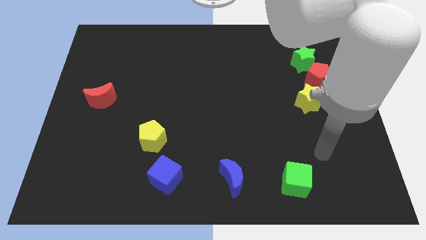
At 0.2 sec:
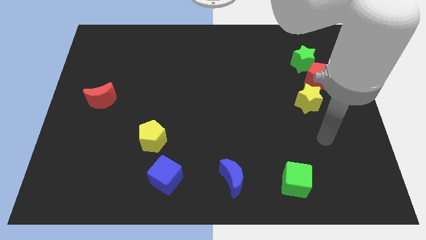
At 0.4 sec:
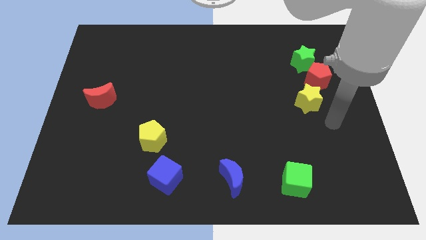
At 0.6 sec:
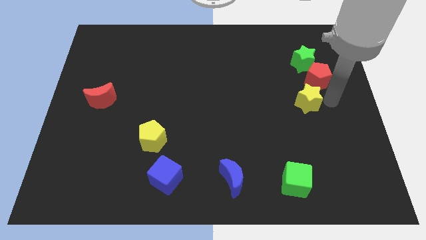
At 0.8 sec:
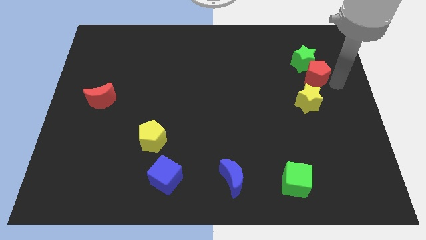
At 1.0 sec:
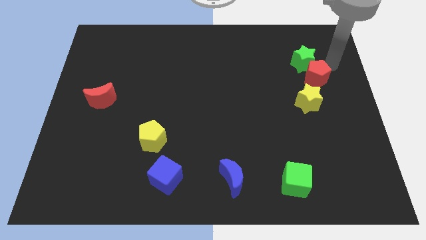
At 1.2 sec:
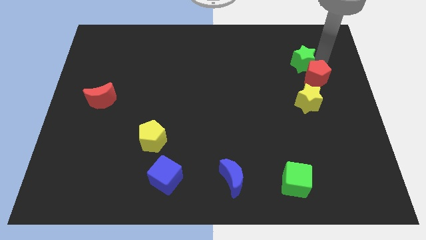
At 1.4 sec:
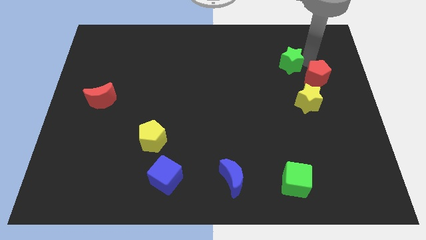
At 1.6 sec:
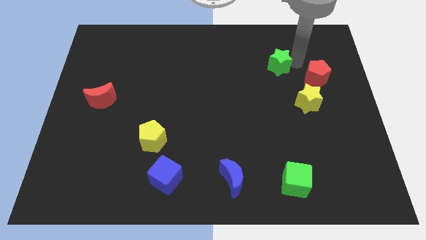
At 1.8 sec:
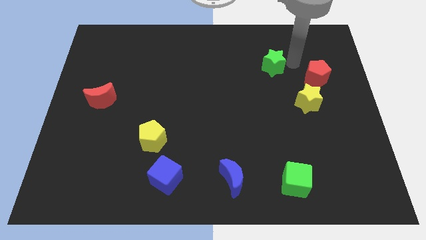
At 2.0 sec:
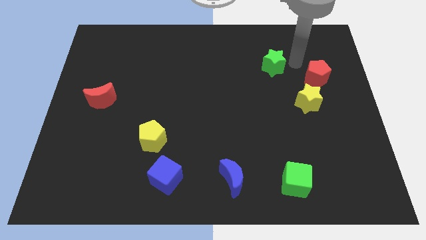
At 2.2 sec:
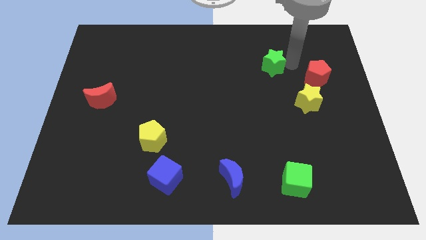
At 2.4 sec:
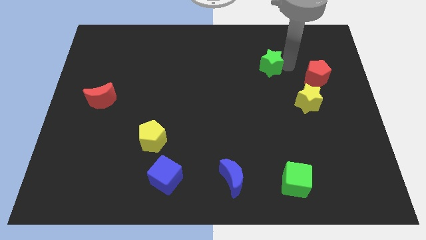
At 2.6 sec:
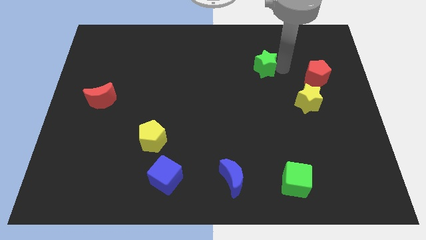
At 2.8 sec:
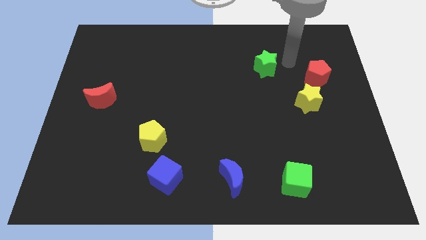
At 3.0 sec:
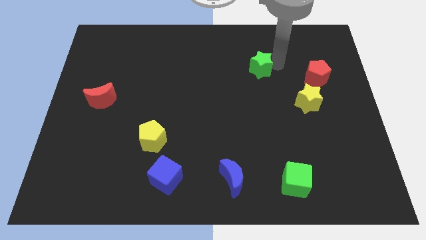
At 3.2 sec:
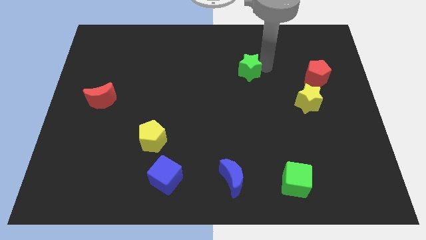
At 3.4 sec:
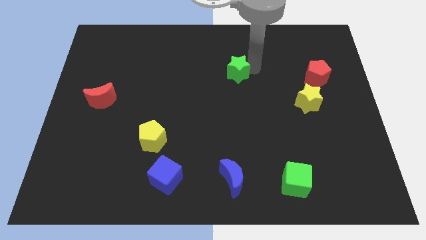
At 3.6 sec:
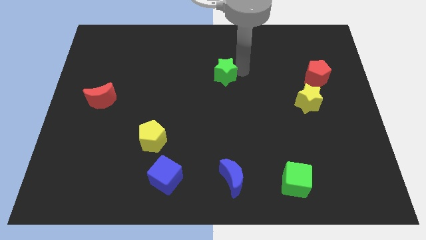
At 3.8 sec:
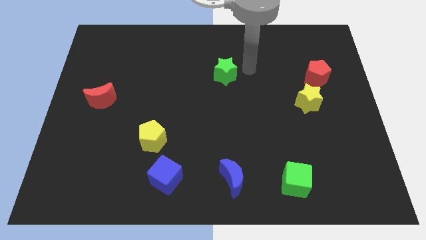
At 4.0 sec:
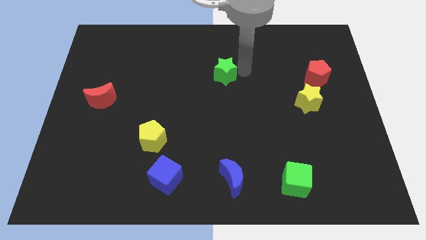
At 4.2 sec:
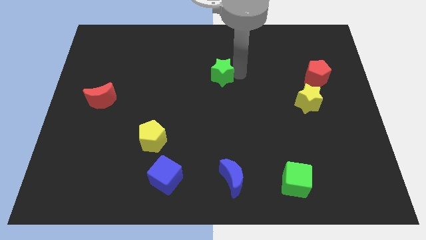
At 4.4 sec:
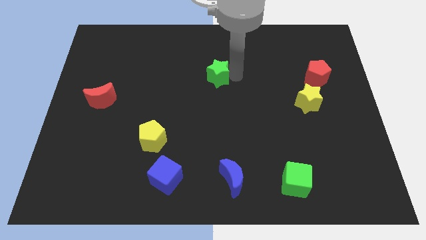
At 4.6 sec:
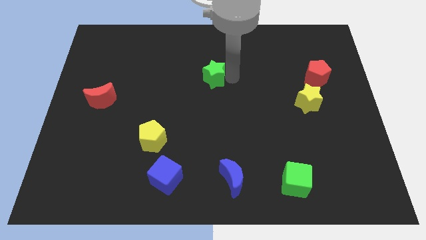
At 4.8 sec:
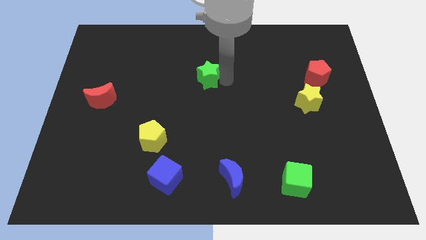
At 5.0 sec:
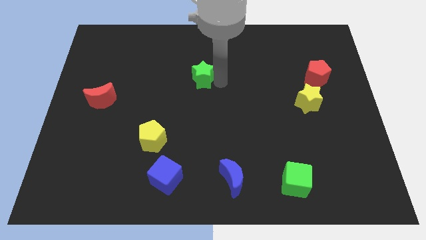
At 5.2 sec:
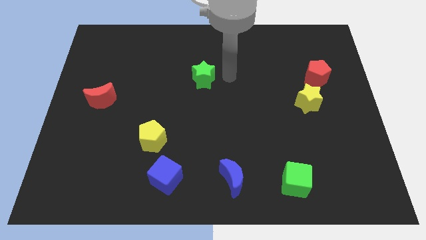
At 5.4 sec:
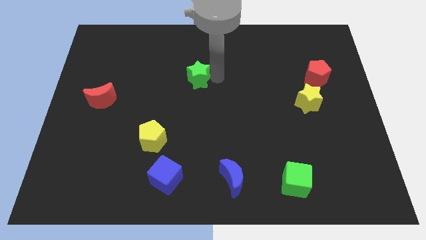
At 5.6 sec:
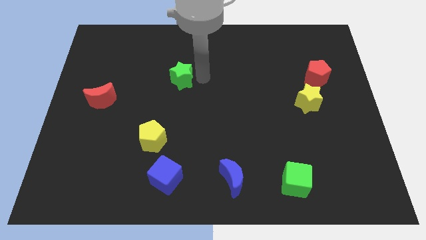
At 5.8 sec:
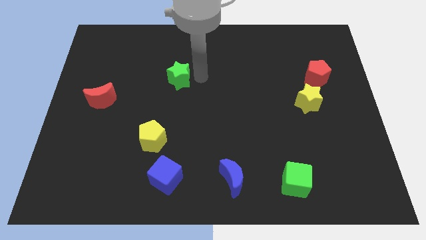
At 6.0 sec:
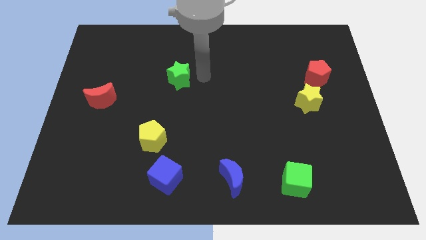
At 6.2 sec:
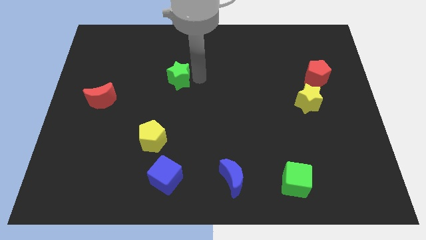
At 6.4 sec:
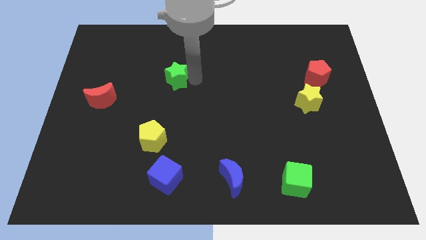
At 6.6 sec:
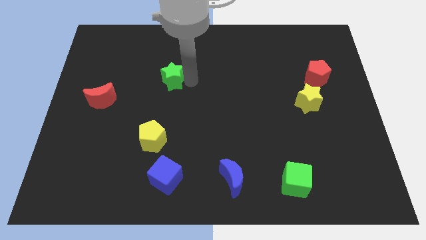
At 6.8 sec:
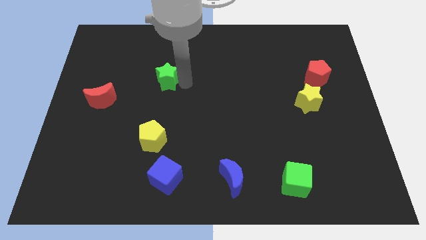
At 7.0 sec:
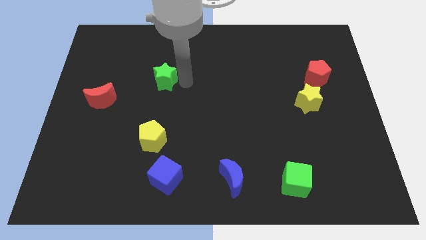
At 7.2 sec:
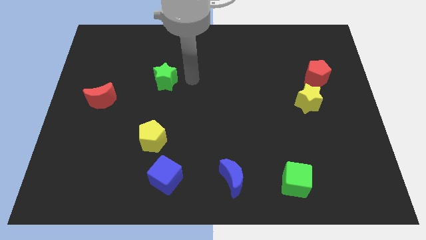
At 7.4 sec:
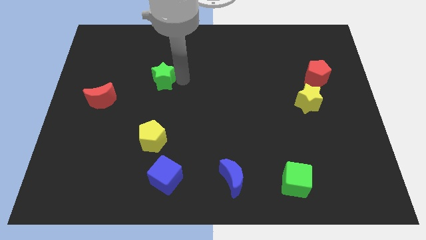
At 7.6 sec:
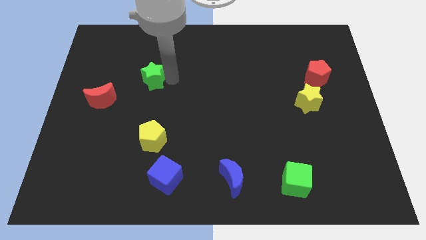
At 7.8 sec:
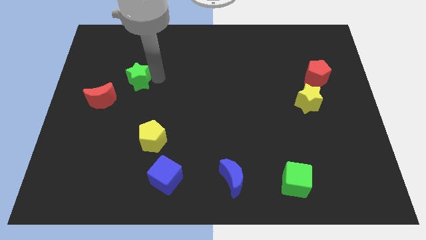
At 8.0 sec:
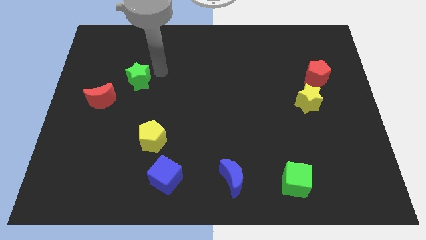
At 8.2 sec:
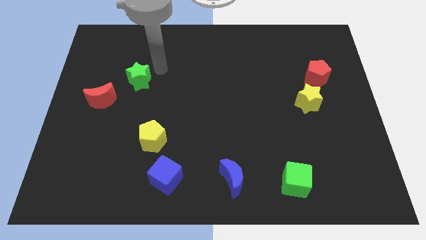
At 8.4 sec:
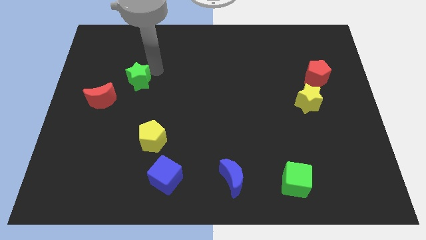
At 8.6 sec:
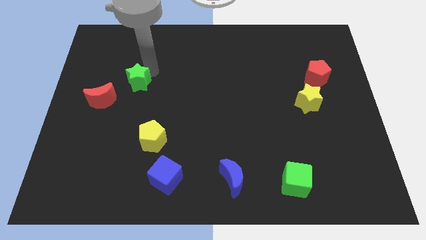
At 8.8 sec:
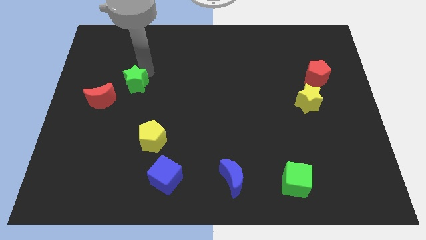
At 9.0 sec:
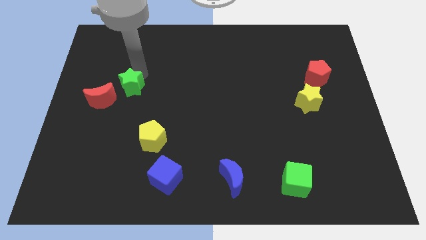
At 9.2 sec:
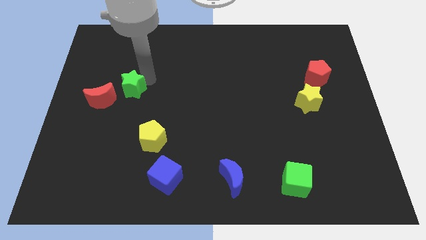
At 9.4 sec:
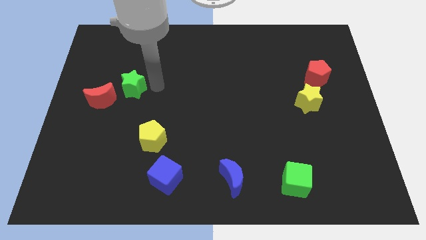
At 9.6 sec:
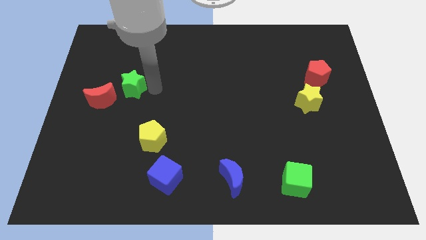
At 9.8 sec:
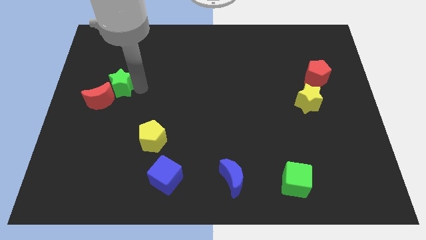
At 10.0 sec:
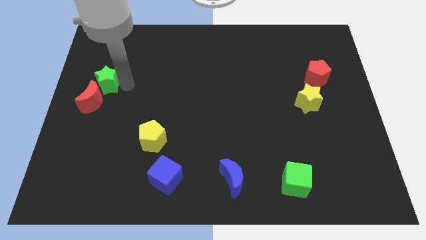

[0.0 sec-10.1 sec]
push the green star to the left side

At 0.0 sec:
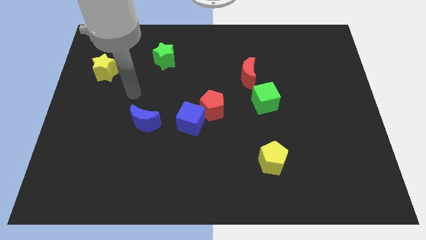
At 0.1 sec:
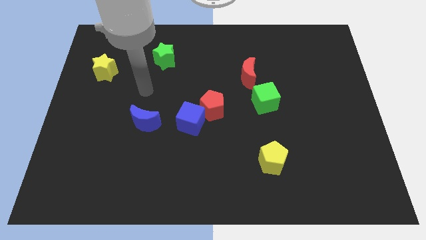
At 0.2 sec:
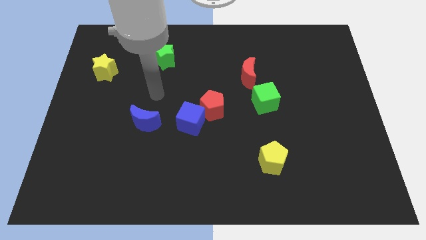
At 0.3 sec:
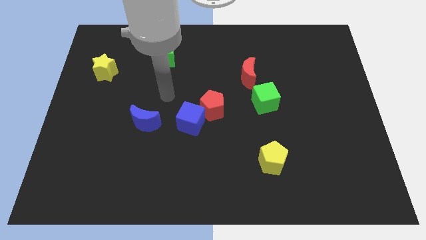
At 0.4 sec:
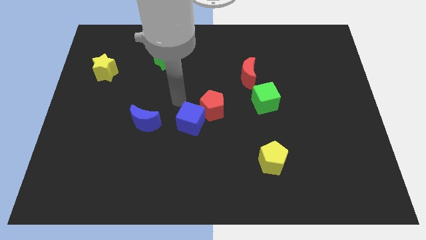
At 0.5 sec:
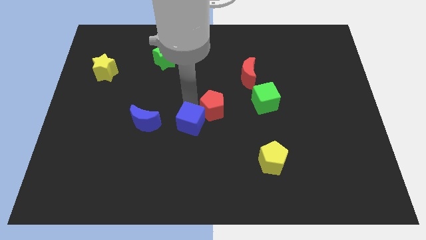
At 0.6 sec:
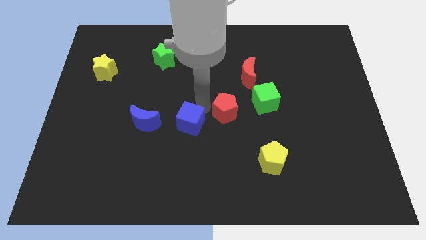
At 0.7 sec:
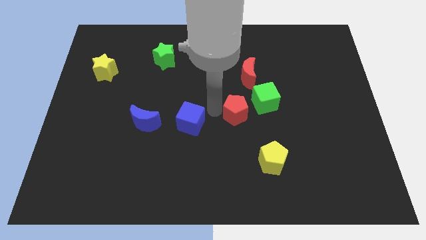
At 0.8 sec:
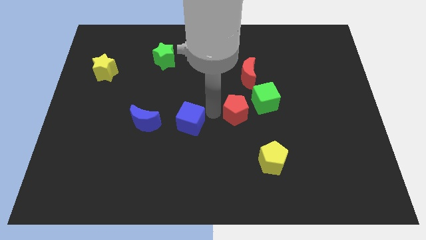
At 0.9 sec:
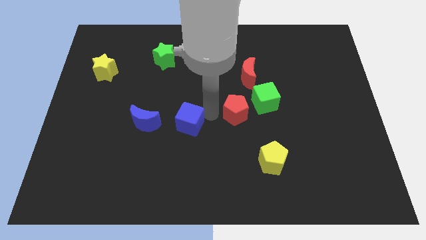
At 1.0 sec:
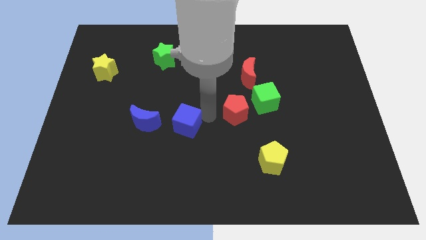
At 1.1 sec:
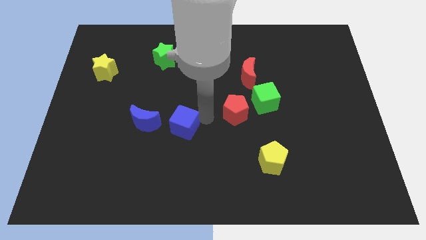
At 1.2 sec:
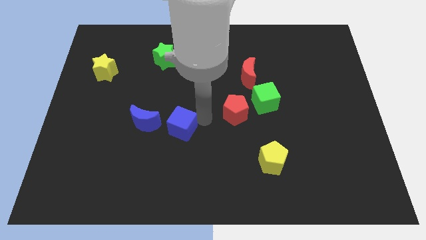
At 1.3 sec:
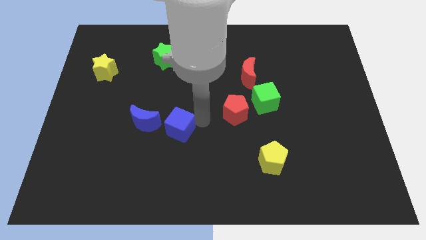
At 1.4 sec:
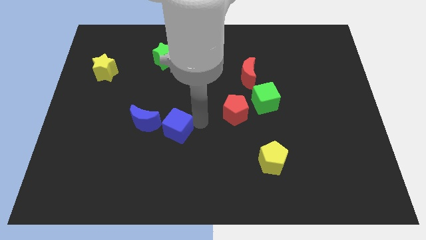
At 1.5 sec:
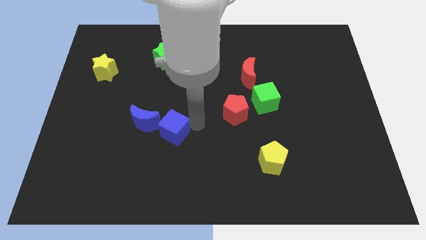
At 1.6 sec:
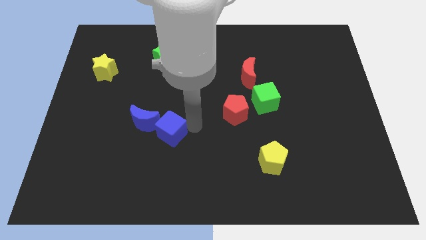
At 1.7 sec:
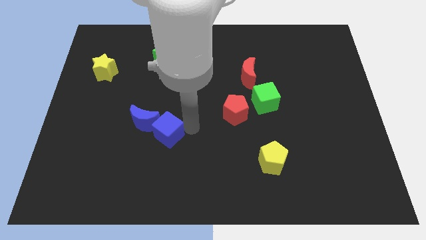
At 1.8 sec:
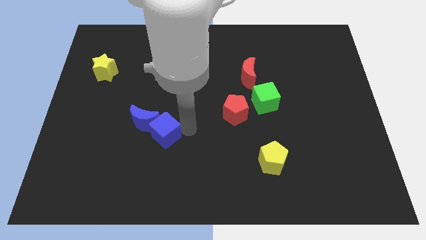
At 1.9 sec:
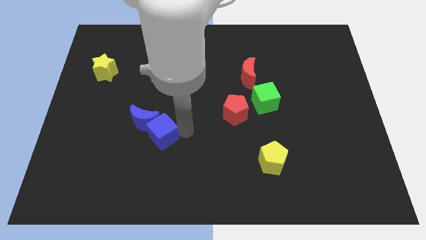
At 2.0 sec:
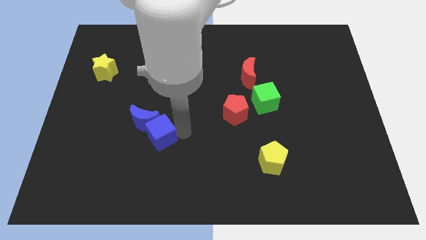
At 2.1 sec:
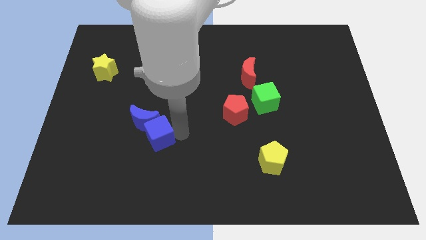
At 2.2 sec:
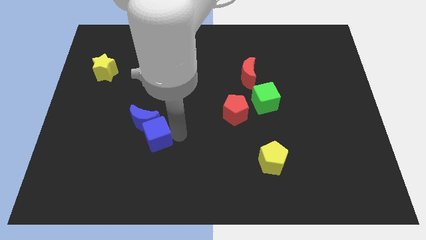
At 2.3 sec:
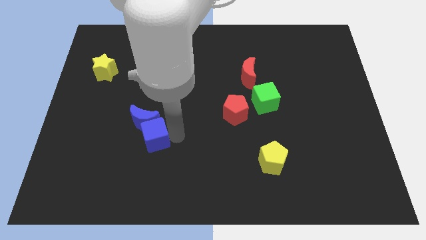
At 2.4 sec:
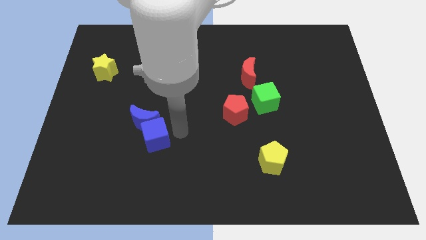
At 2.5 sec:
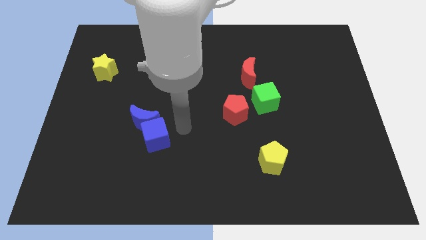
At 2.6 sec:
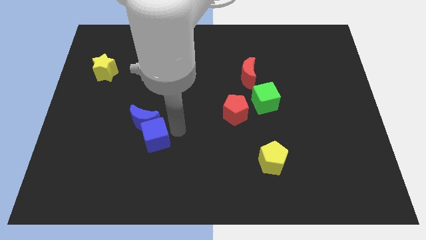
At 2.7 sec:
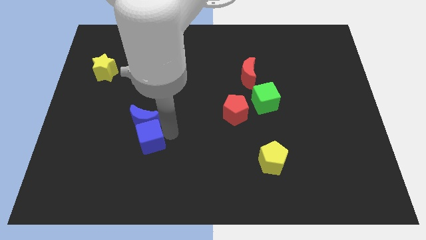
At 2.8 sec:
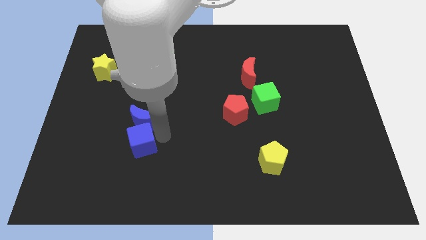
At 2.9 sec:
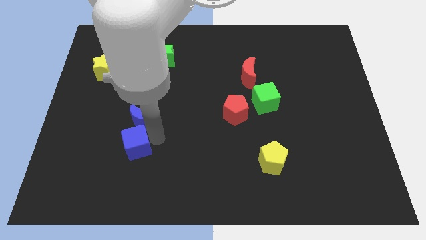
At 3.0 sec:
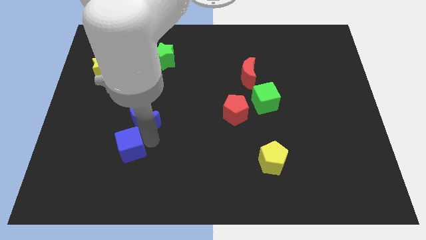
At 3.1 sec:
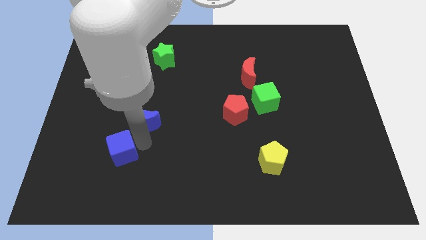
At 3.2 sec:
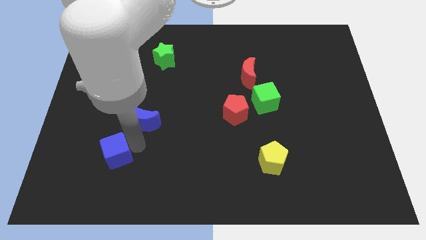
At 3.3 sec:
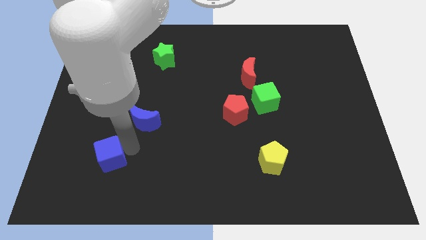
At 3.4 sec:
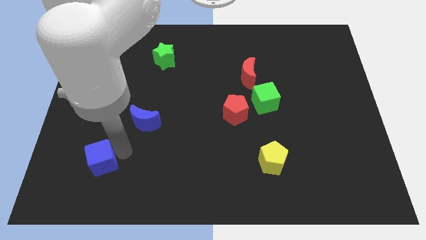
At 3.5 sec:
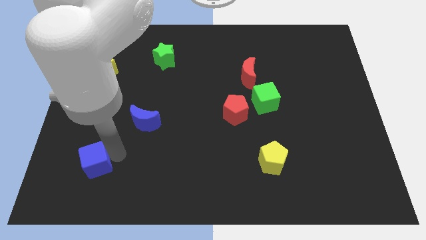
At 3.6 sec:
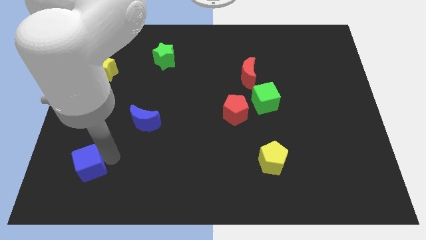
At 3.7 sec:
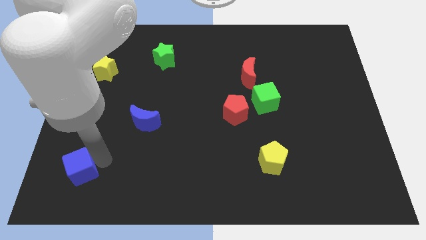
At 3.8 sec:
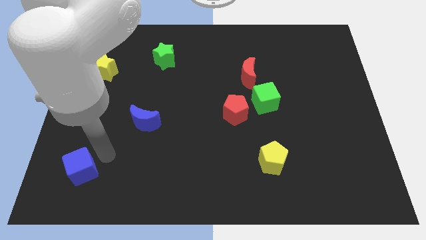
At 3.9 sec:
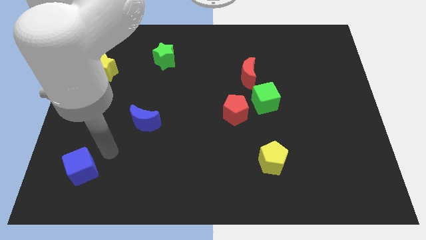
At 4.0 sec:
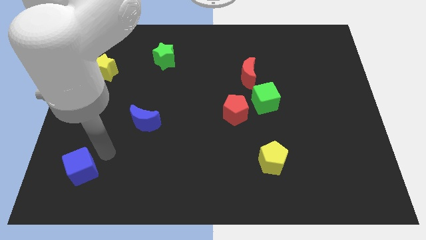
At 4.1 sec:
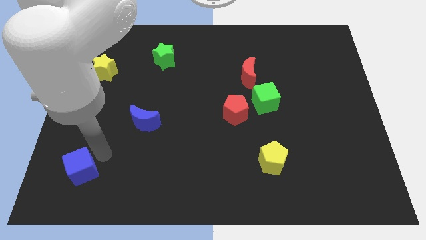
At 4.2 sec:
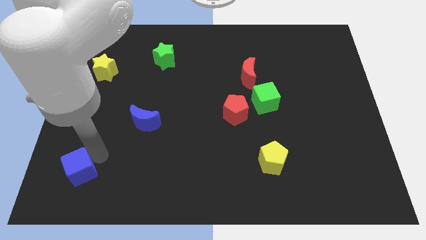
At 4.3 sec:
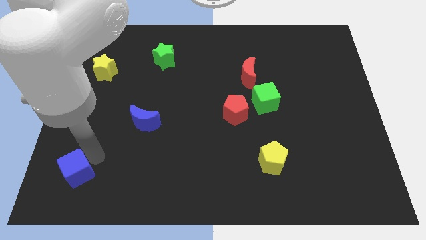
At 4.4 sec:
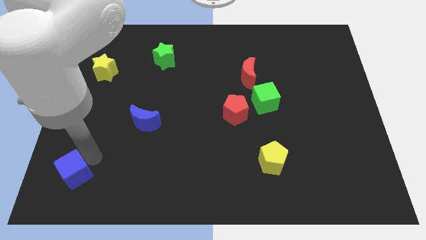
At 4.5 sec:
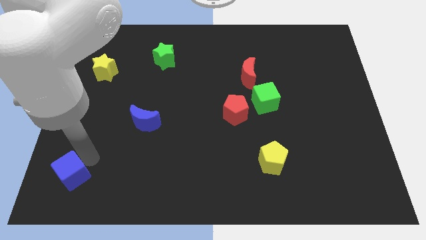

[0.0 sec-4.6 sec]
push the blue cube to the bottom left
